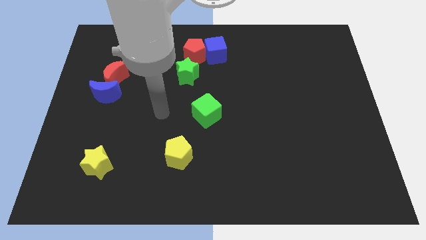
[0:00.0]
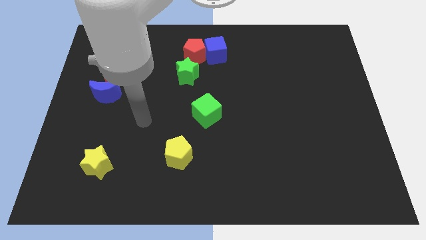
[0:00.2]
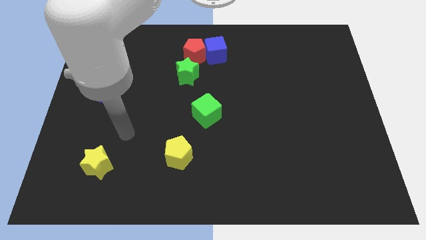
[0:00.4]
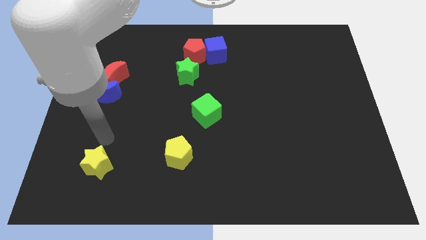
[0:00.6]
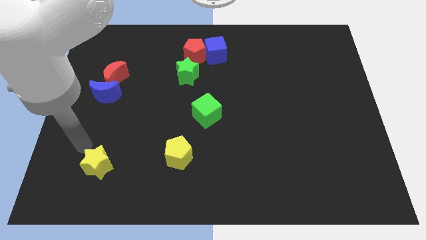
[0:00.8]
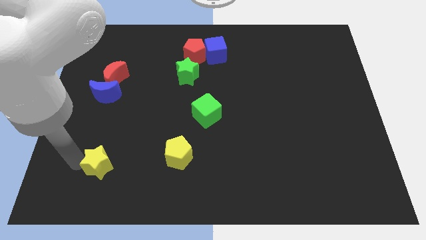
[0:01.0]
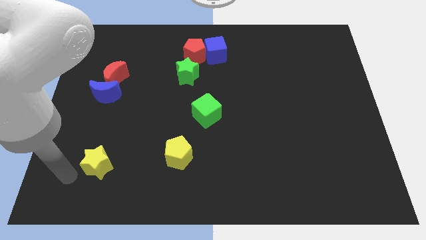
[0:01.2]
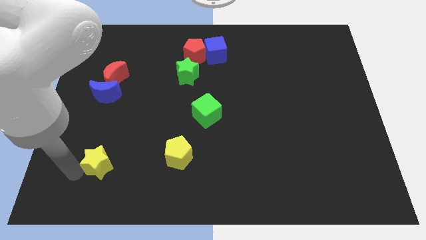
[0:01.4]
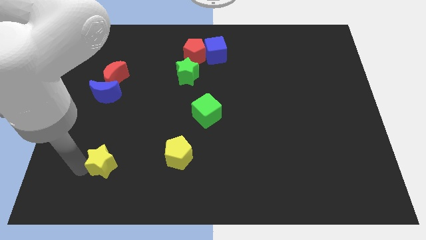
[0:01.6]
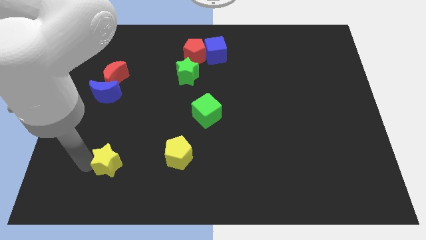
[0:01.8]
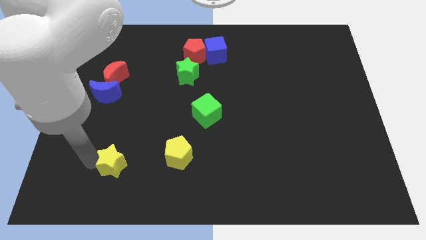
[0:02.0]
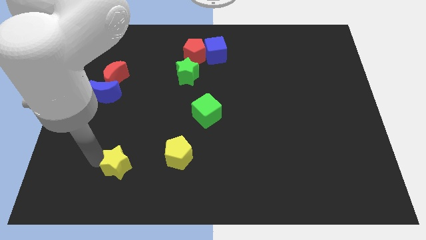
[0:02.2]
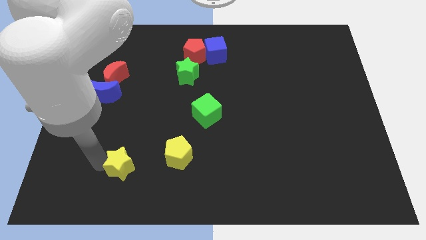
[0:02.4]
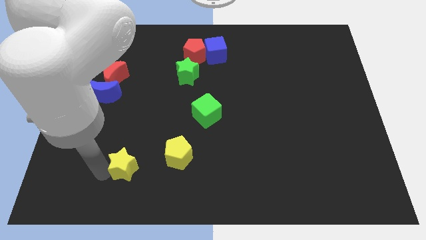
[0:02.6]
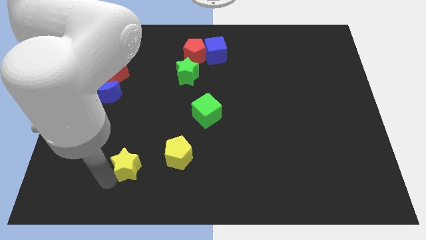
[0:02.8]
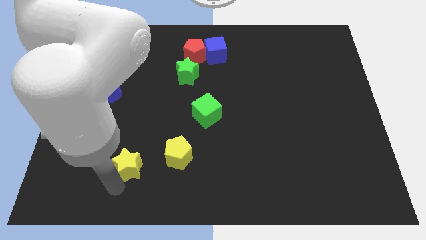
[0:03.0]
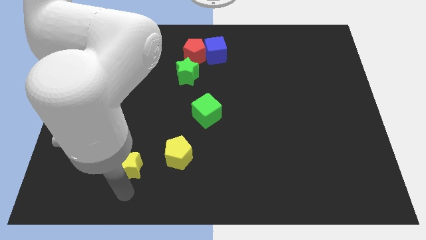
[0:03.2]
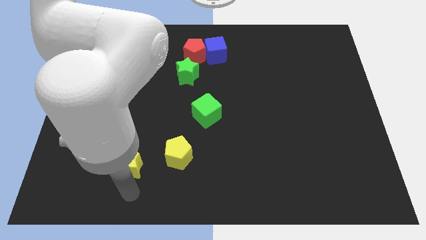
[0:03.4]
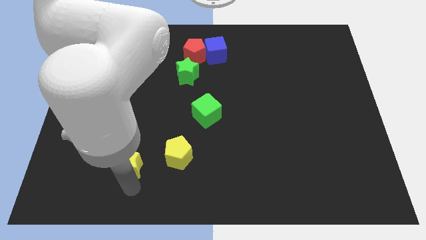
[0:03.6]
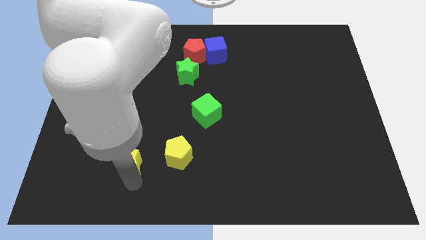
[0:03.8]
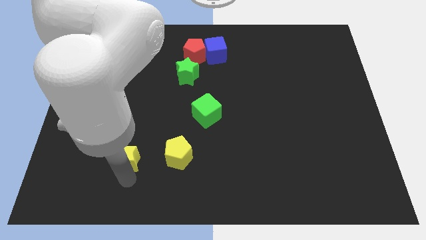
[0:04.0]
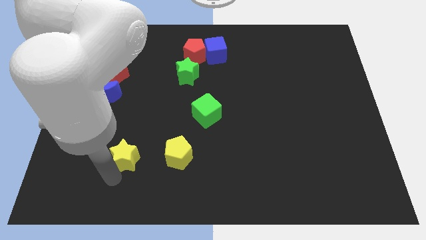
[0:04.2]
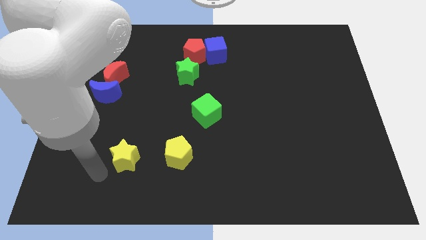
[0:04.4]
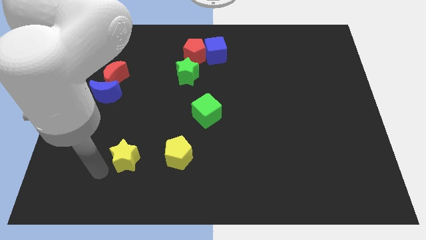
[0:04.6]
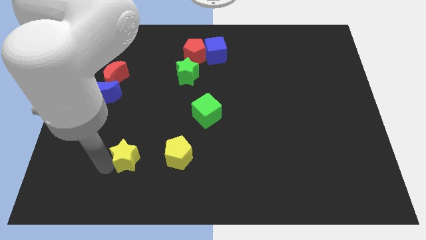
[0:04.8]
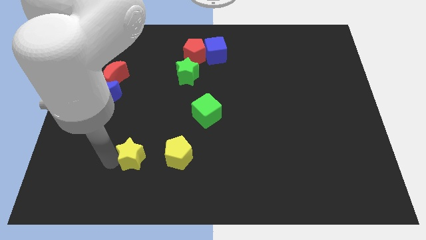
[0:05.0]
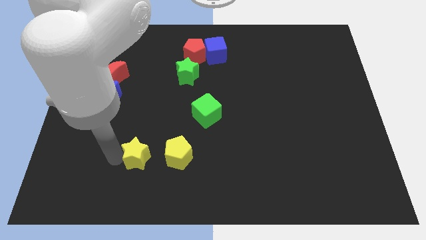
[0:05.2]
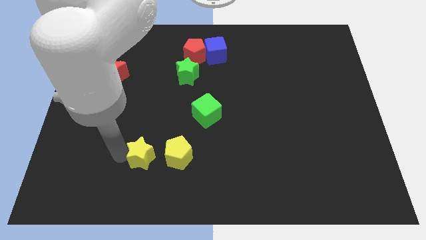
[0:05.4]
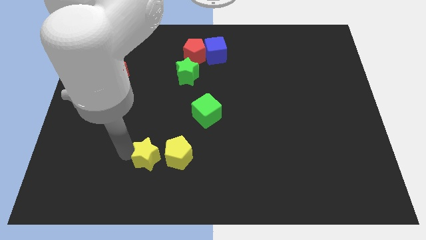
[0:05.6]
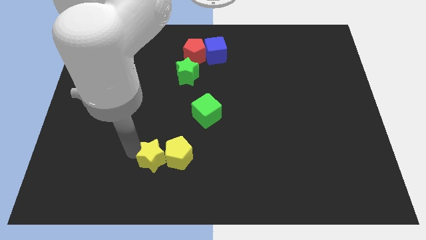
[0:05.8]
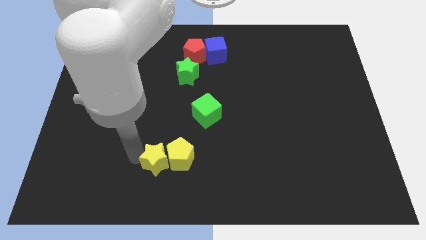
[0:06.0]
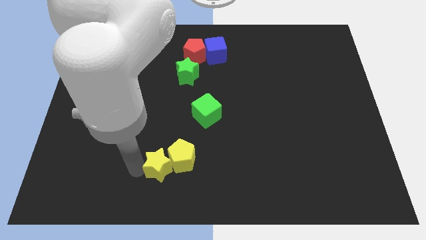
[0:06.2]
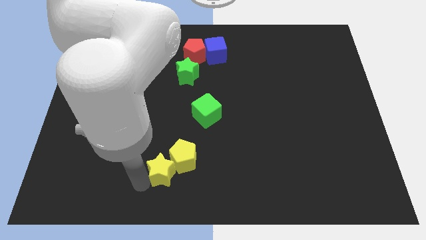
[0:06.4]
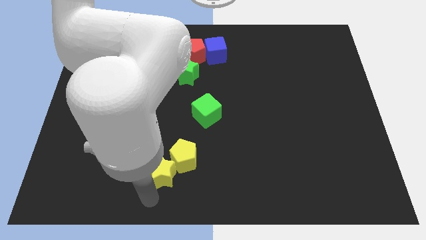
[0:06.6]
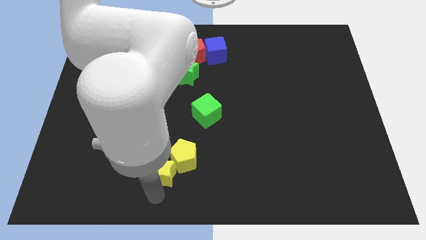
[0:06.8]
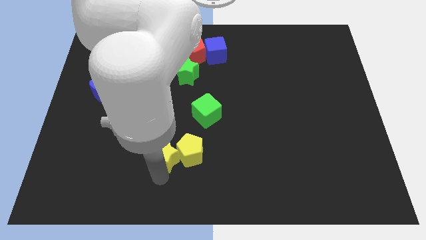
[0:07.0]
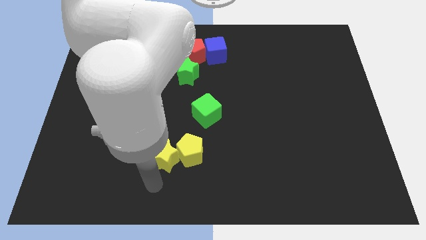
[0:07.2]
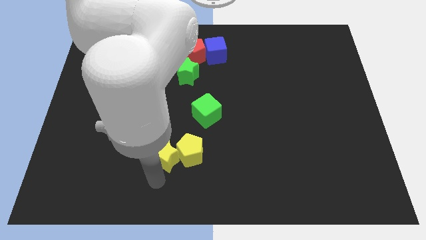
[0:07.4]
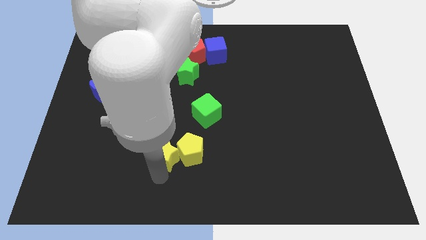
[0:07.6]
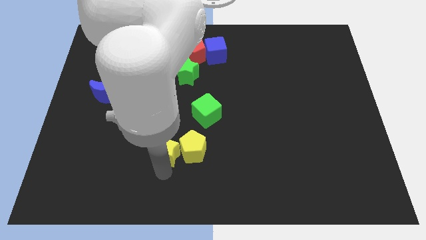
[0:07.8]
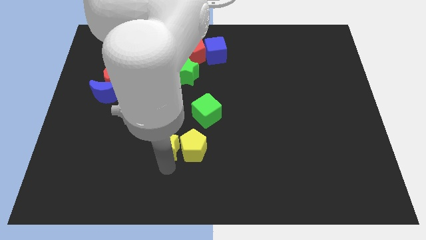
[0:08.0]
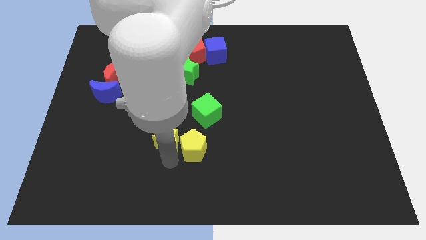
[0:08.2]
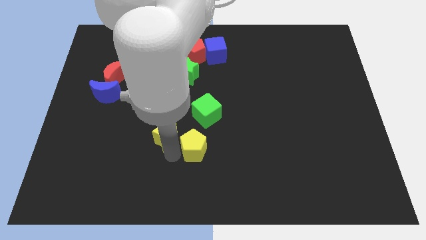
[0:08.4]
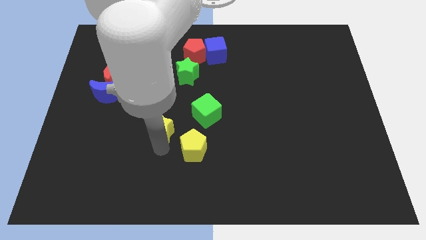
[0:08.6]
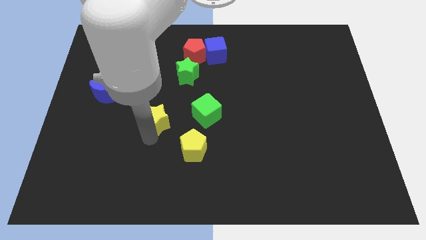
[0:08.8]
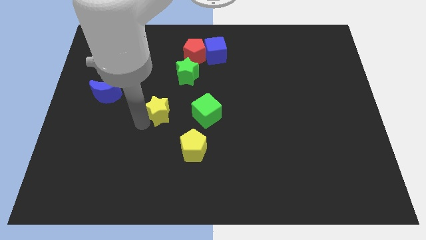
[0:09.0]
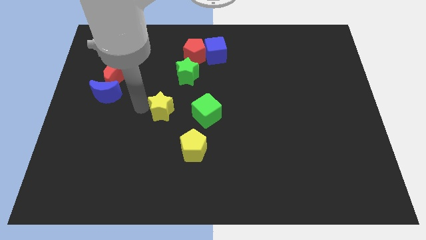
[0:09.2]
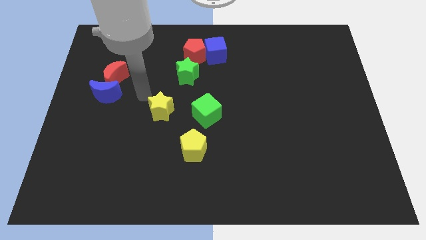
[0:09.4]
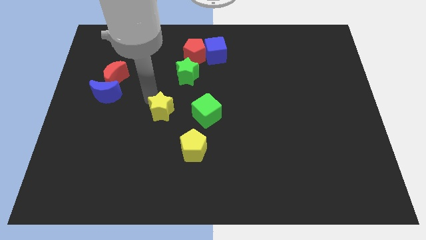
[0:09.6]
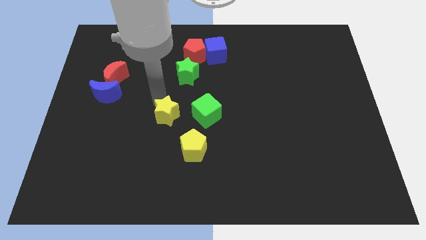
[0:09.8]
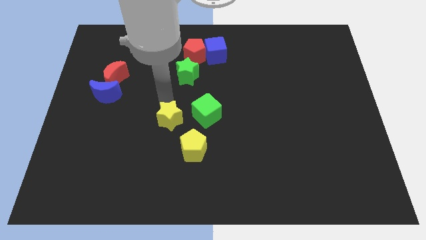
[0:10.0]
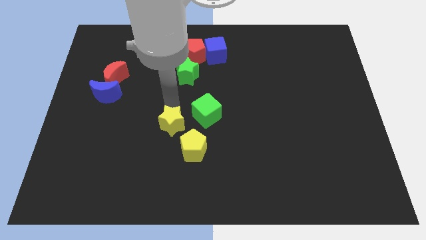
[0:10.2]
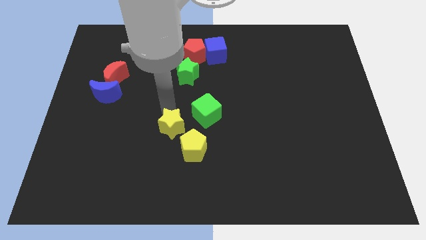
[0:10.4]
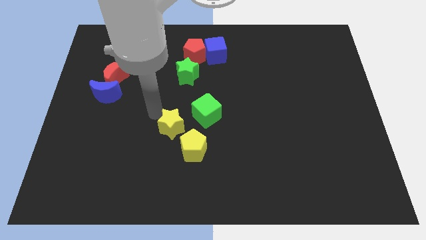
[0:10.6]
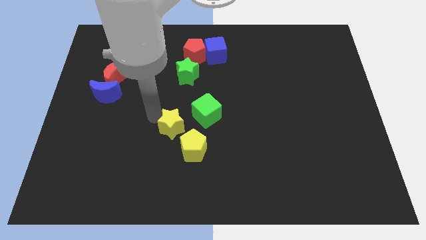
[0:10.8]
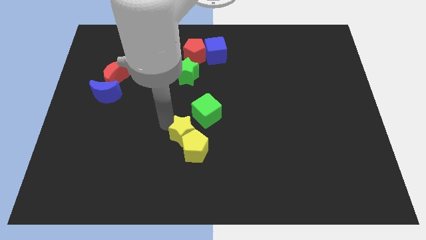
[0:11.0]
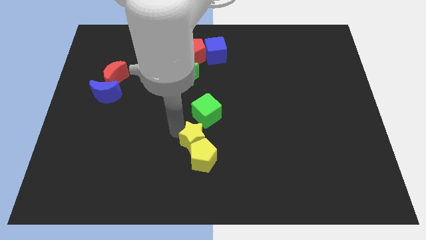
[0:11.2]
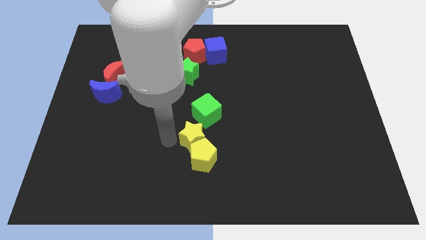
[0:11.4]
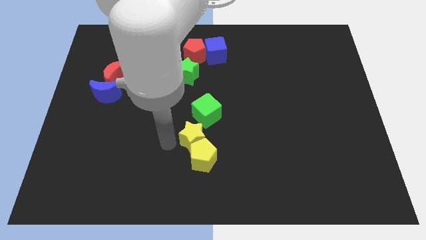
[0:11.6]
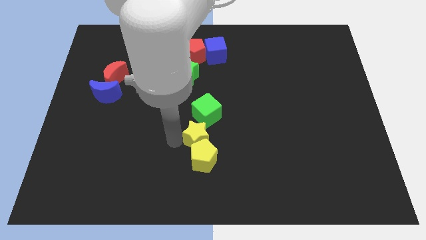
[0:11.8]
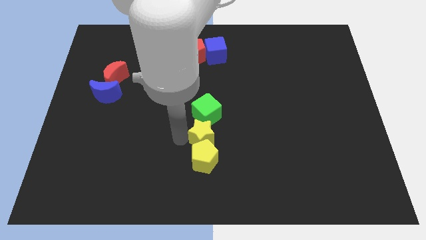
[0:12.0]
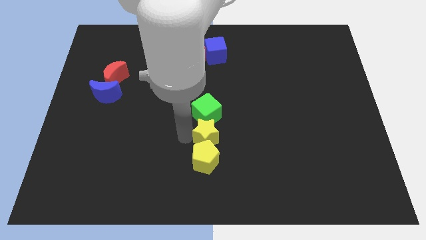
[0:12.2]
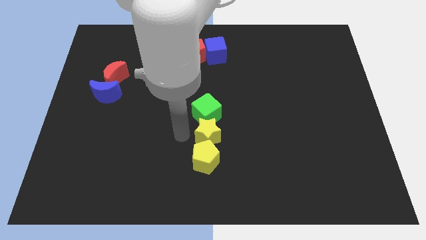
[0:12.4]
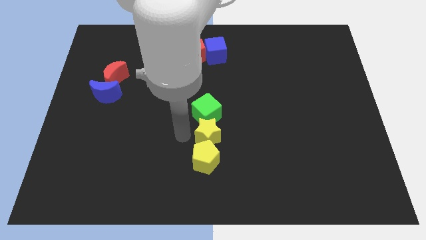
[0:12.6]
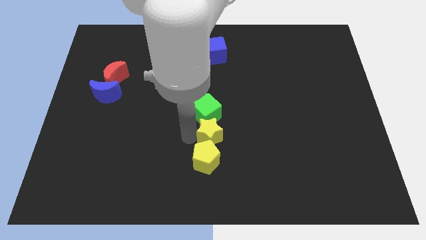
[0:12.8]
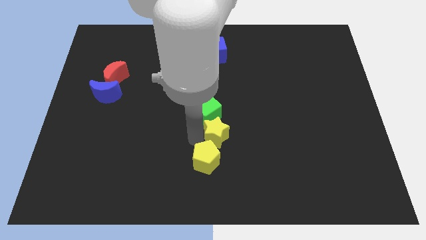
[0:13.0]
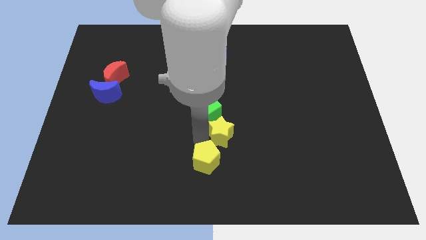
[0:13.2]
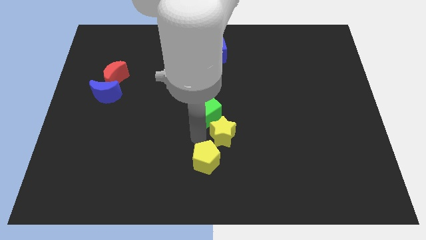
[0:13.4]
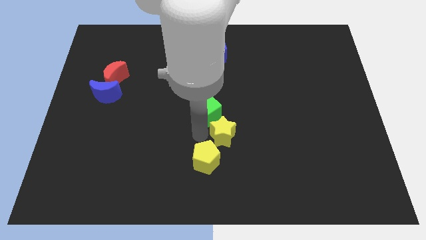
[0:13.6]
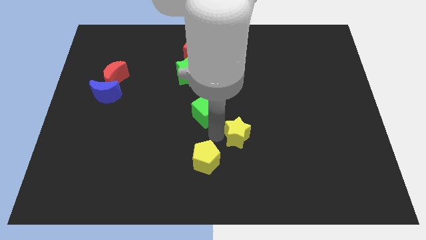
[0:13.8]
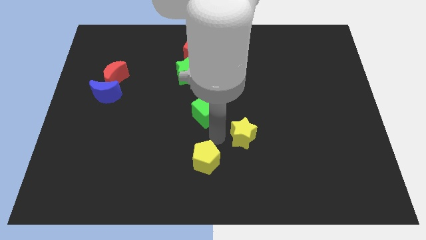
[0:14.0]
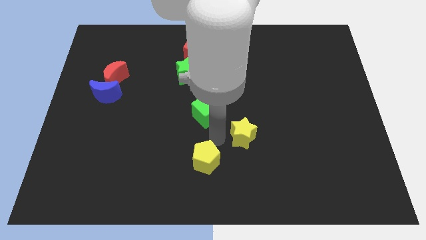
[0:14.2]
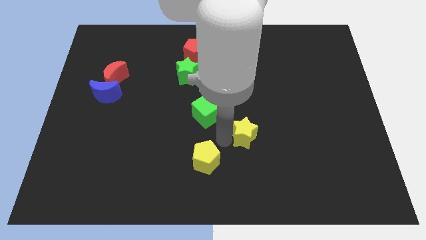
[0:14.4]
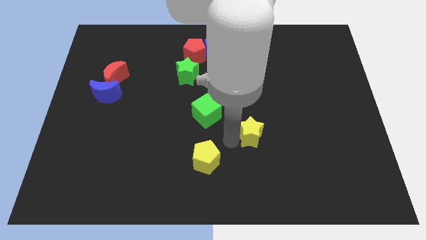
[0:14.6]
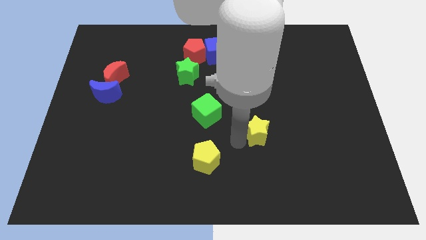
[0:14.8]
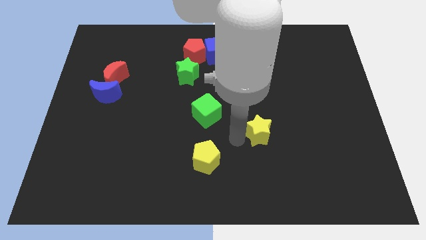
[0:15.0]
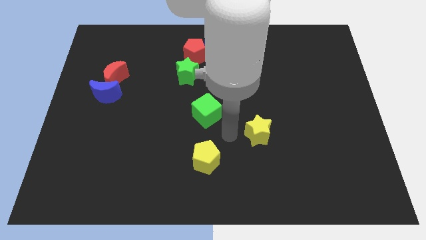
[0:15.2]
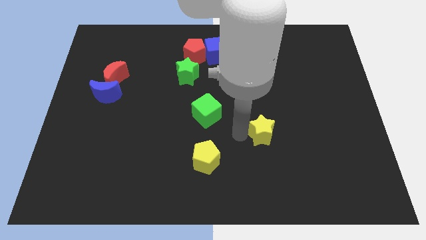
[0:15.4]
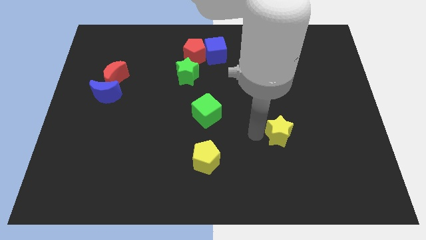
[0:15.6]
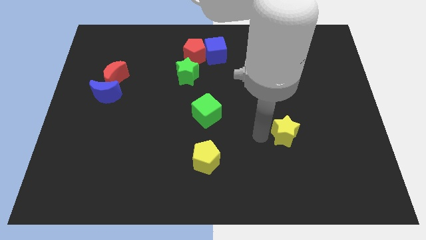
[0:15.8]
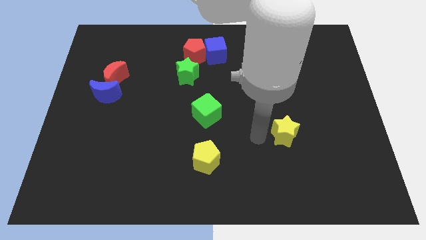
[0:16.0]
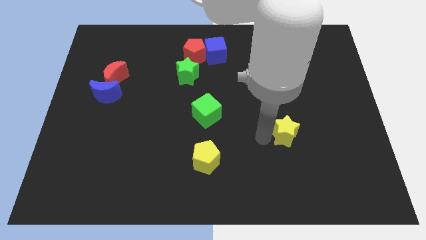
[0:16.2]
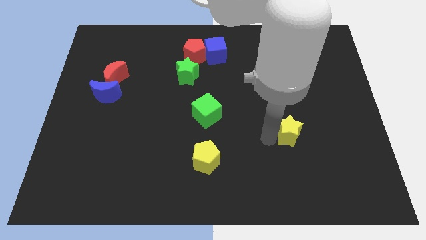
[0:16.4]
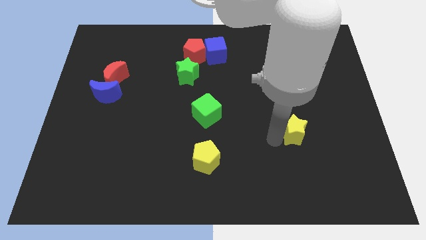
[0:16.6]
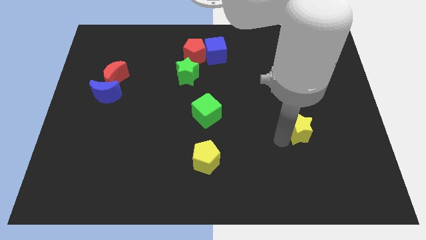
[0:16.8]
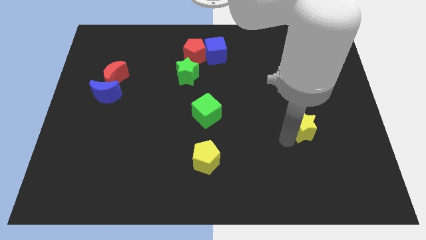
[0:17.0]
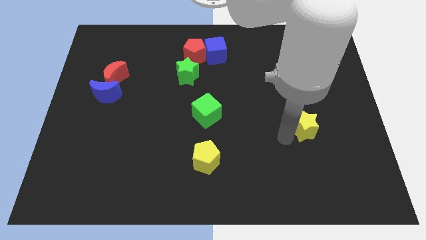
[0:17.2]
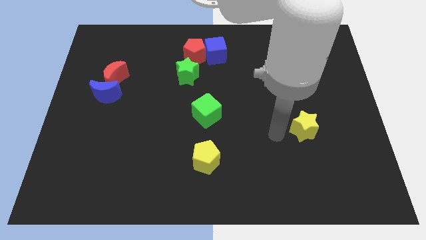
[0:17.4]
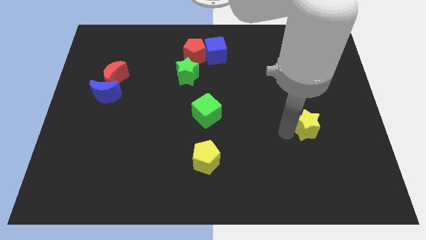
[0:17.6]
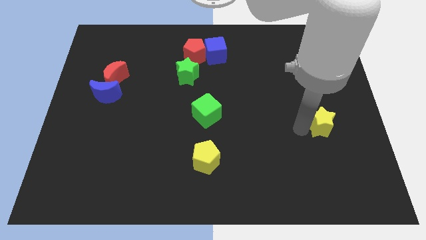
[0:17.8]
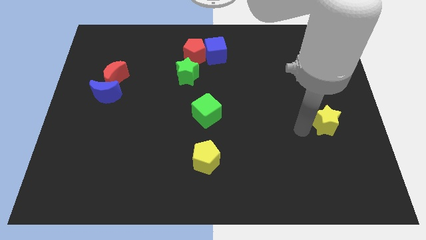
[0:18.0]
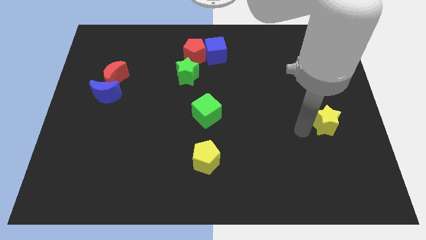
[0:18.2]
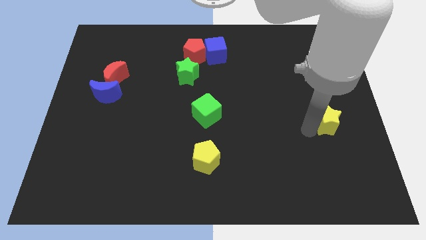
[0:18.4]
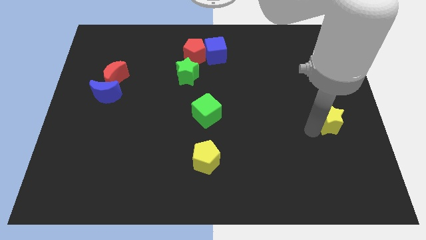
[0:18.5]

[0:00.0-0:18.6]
put the yellow star to the right side
